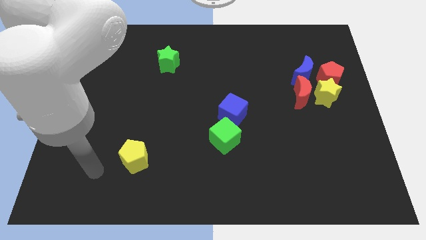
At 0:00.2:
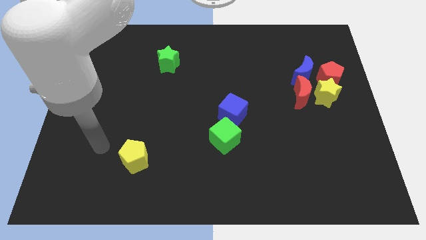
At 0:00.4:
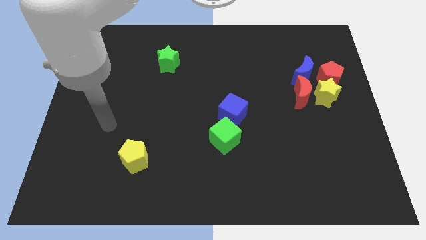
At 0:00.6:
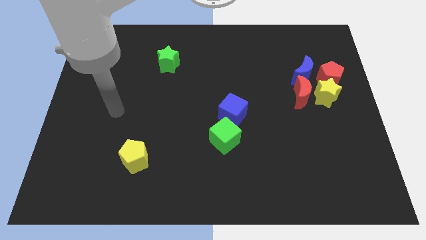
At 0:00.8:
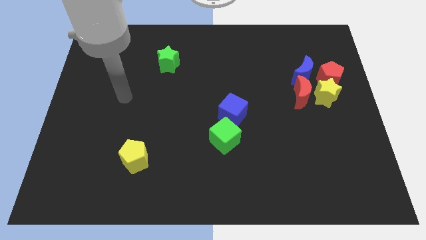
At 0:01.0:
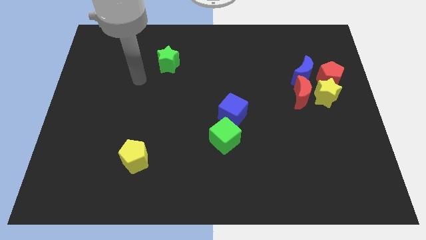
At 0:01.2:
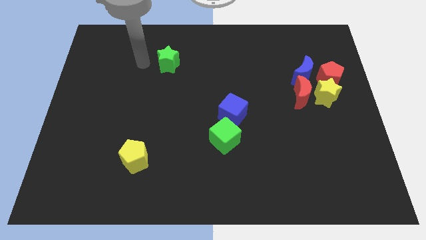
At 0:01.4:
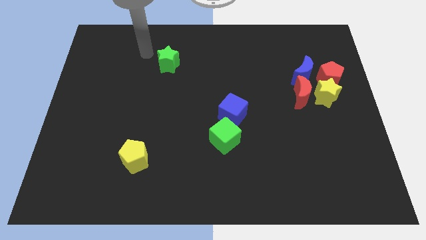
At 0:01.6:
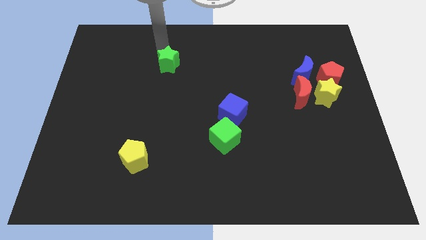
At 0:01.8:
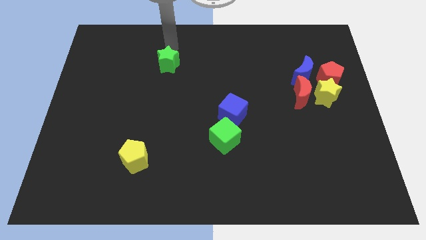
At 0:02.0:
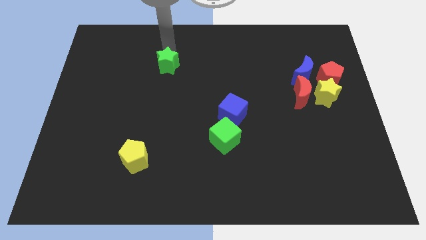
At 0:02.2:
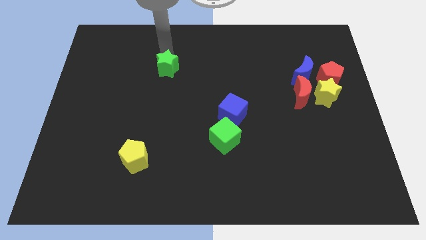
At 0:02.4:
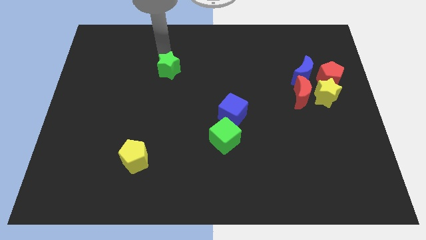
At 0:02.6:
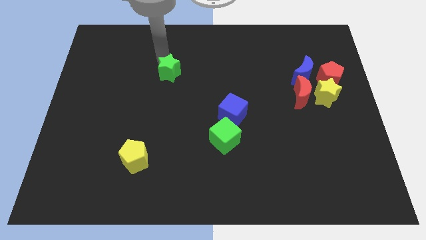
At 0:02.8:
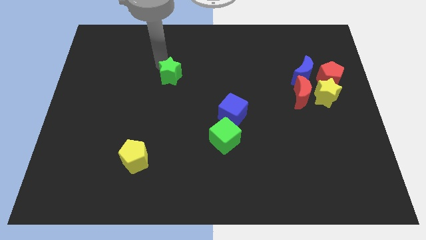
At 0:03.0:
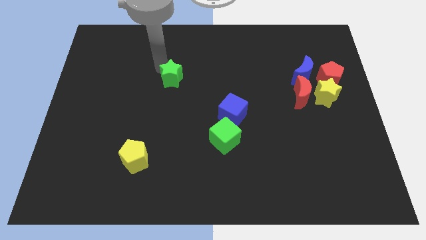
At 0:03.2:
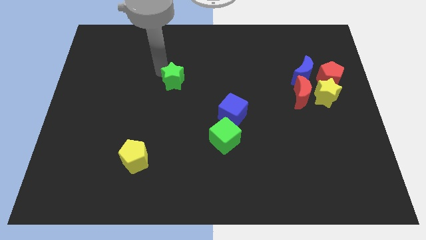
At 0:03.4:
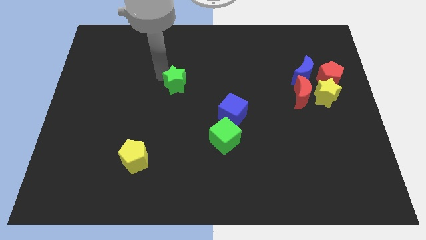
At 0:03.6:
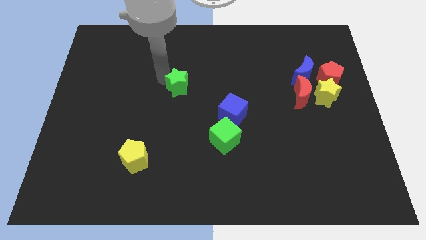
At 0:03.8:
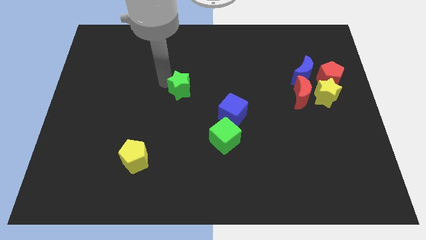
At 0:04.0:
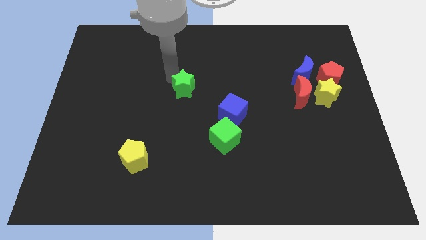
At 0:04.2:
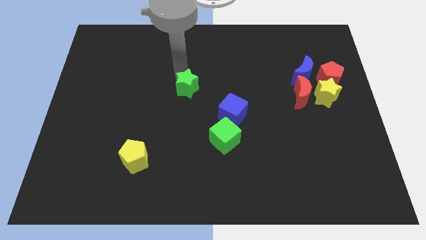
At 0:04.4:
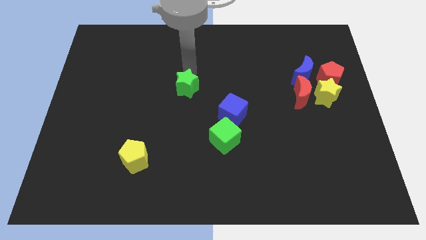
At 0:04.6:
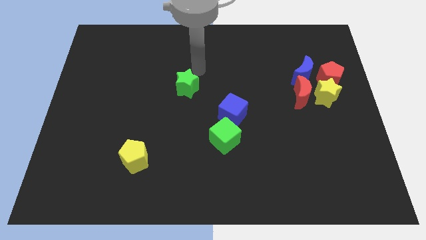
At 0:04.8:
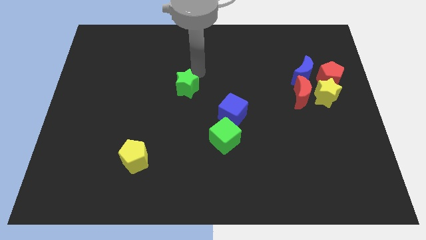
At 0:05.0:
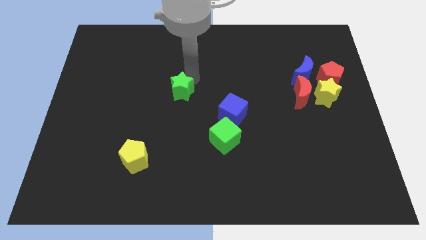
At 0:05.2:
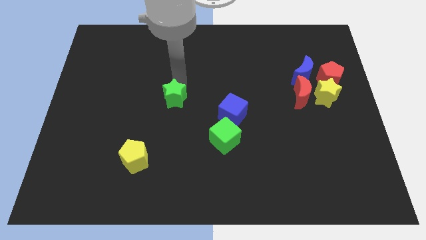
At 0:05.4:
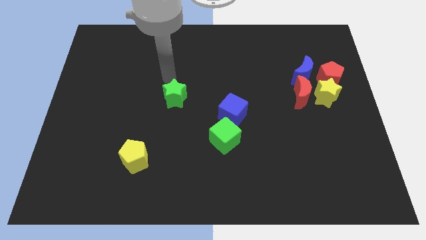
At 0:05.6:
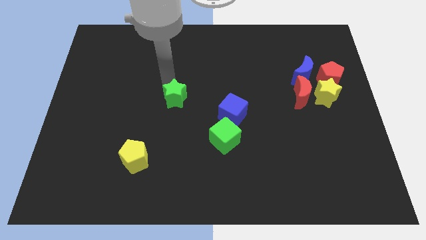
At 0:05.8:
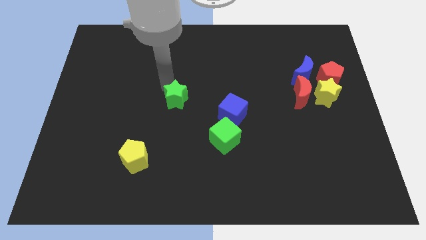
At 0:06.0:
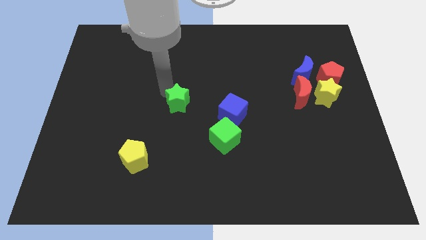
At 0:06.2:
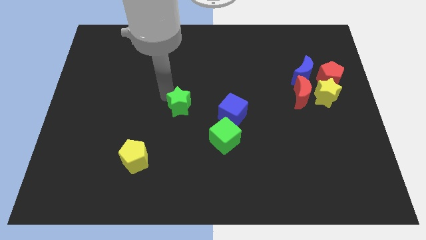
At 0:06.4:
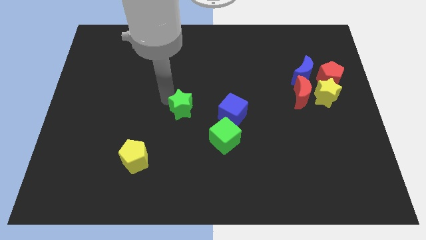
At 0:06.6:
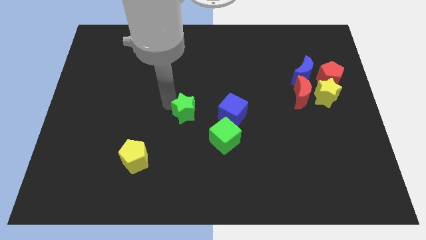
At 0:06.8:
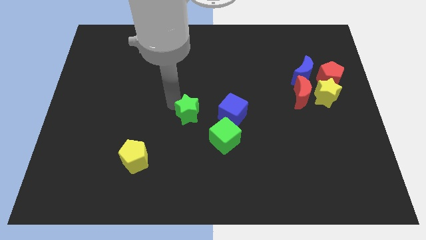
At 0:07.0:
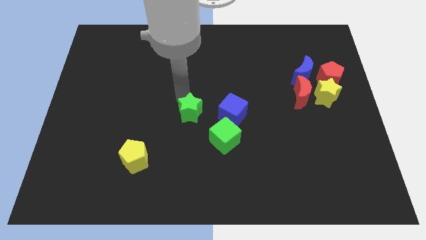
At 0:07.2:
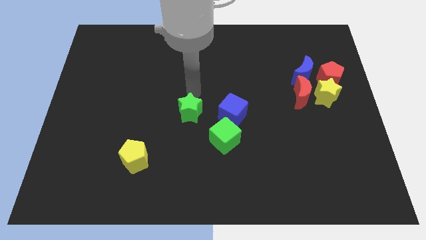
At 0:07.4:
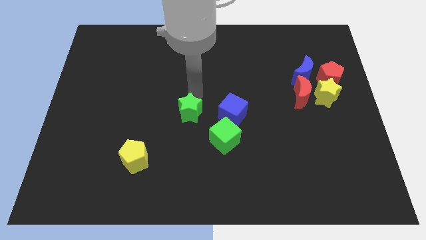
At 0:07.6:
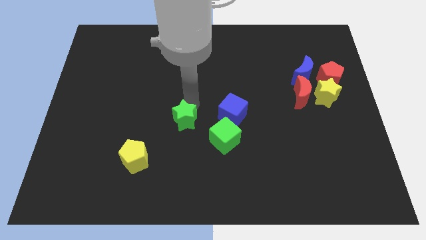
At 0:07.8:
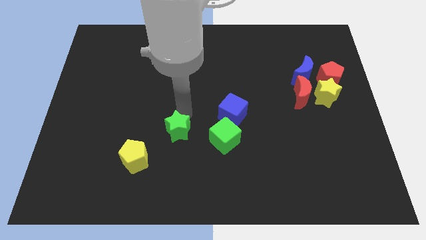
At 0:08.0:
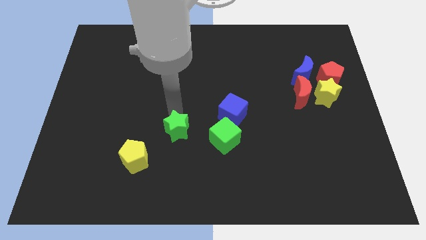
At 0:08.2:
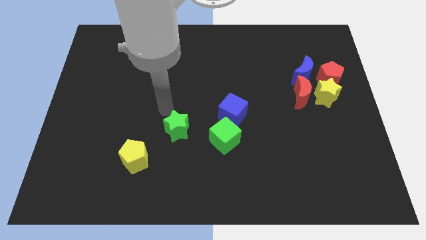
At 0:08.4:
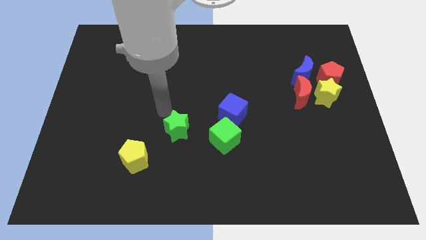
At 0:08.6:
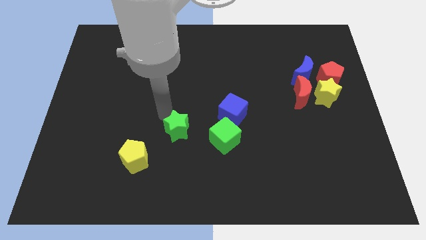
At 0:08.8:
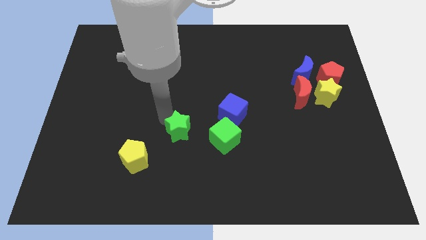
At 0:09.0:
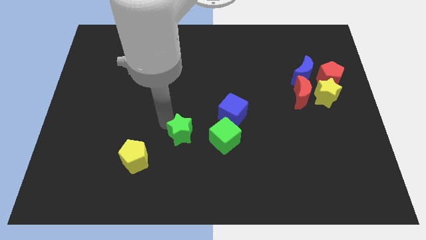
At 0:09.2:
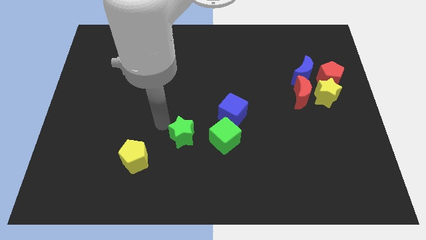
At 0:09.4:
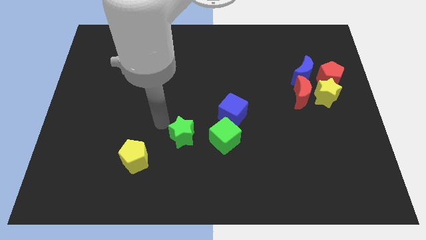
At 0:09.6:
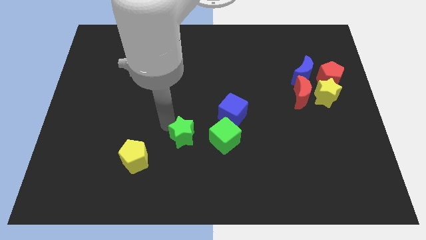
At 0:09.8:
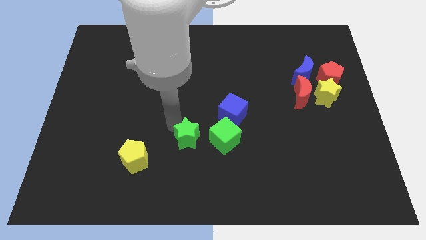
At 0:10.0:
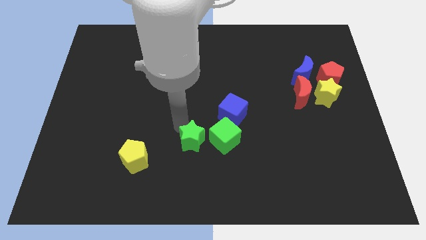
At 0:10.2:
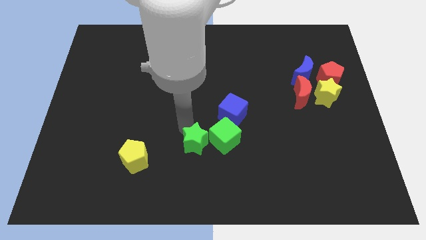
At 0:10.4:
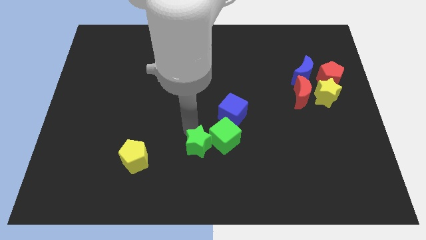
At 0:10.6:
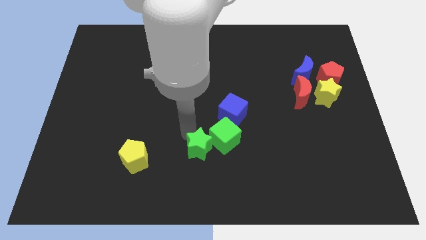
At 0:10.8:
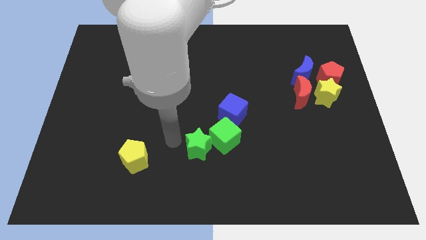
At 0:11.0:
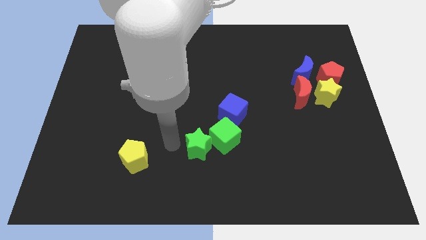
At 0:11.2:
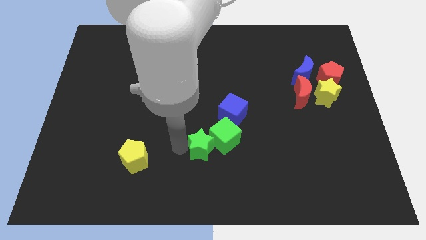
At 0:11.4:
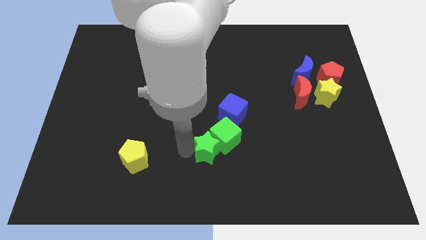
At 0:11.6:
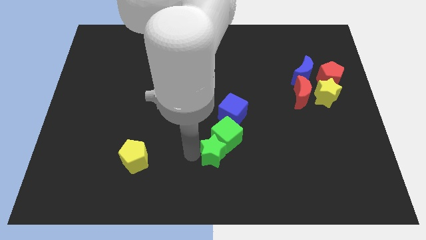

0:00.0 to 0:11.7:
put the green star below the blue cube

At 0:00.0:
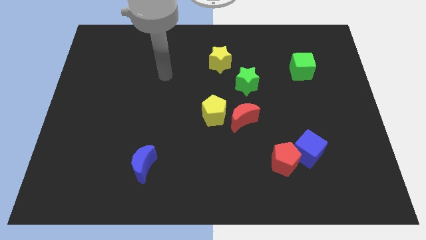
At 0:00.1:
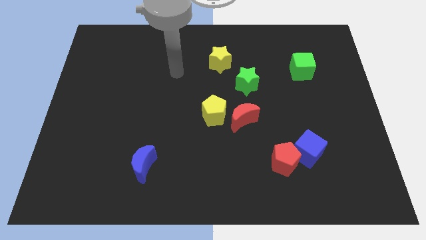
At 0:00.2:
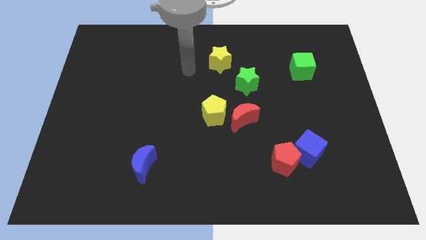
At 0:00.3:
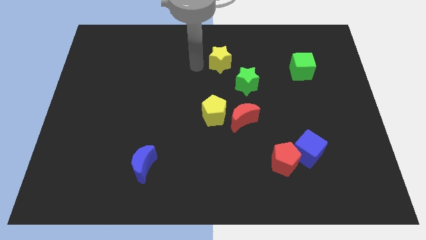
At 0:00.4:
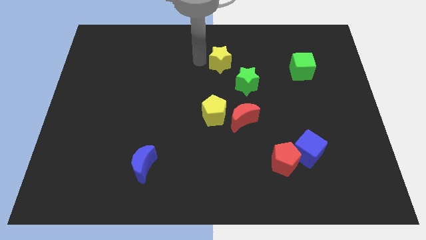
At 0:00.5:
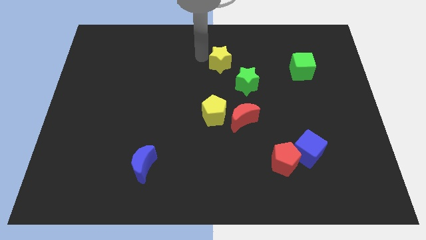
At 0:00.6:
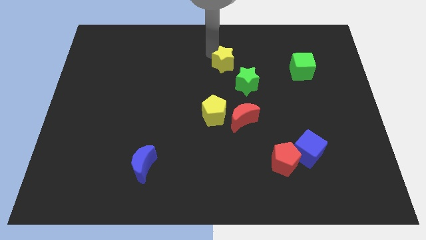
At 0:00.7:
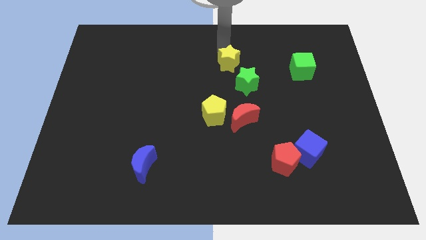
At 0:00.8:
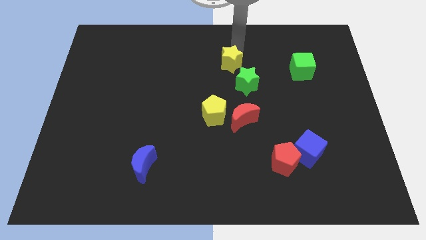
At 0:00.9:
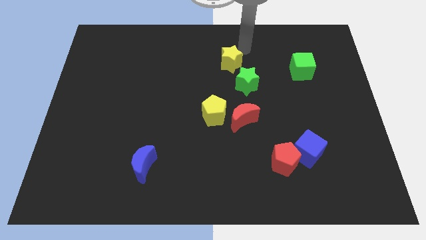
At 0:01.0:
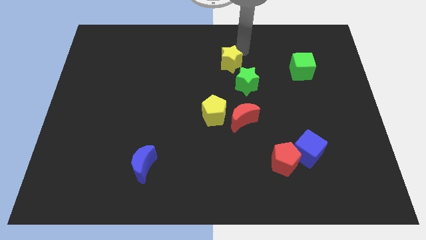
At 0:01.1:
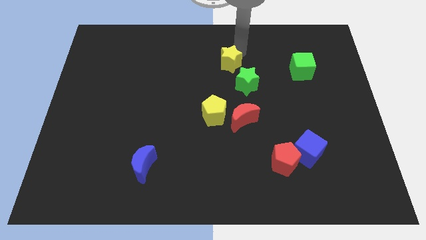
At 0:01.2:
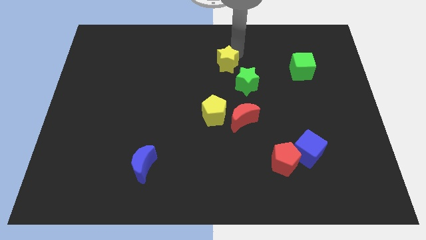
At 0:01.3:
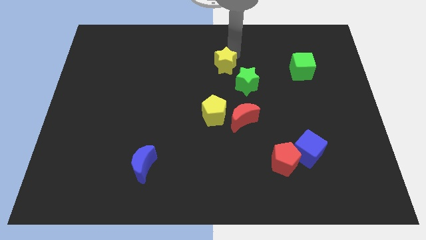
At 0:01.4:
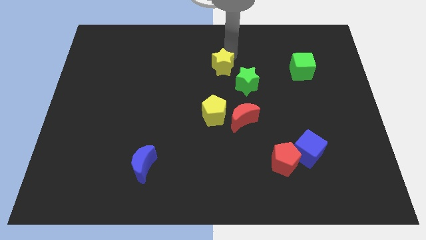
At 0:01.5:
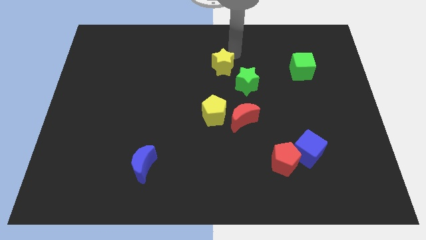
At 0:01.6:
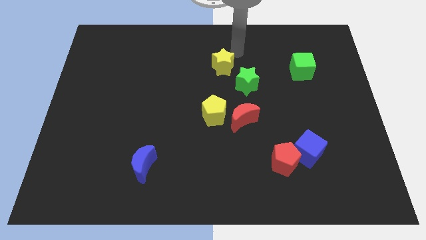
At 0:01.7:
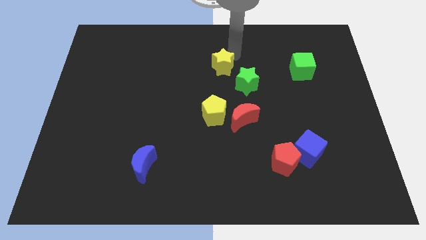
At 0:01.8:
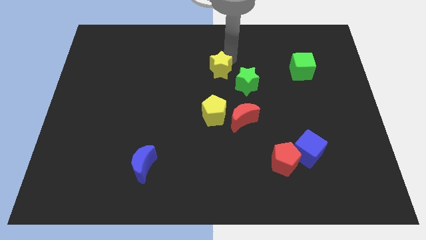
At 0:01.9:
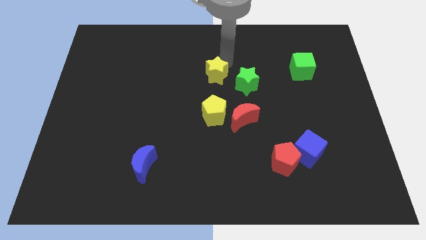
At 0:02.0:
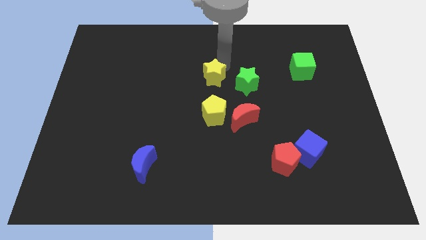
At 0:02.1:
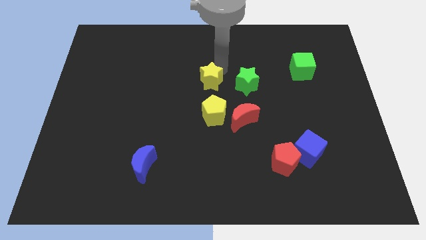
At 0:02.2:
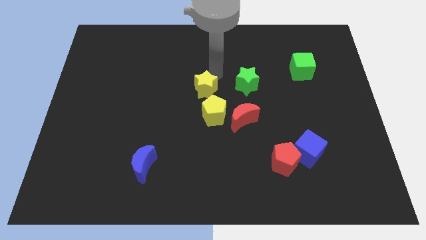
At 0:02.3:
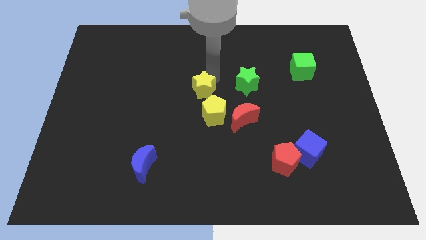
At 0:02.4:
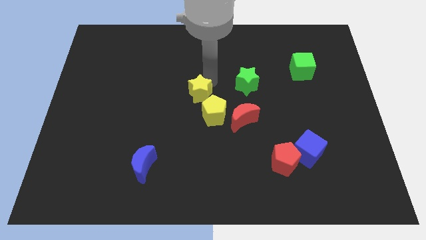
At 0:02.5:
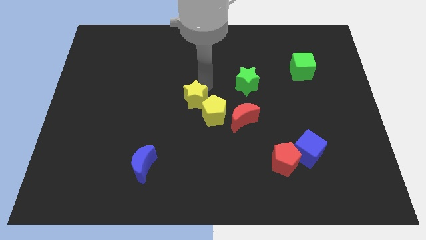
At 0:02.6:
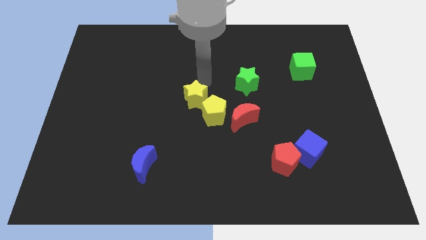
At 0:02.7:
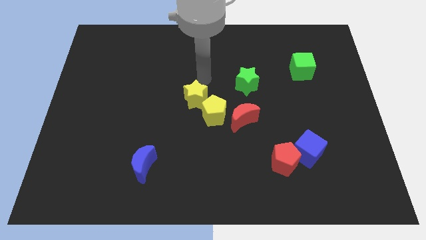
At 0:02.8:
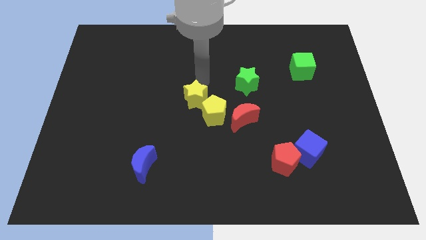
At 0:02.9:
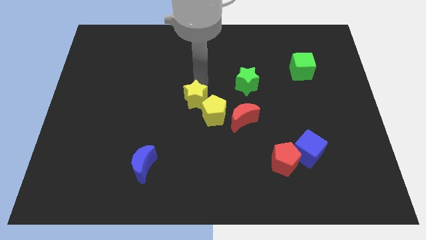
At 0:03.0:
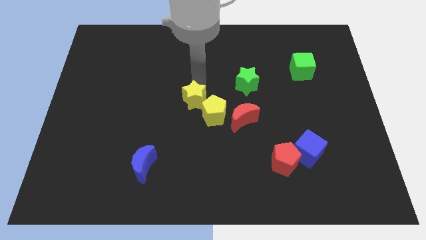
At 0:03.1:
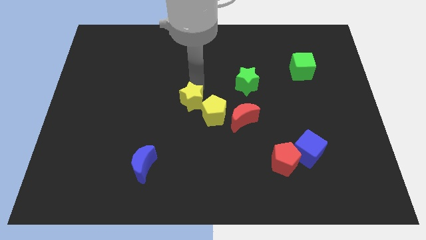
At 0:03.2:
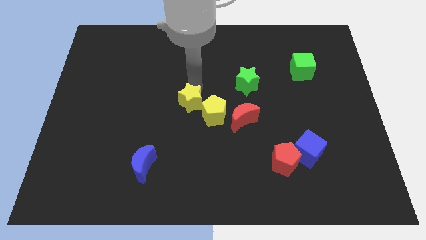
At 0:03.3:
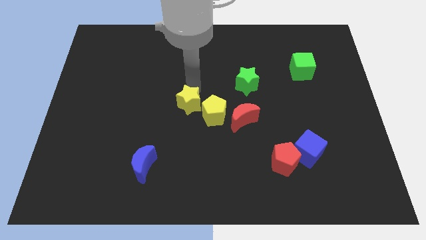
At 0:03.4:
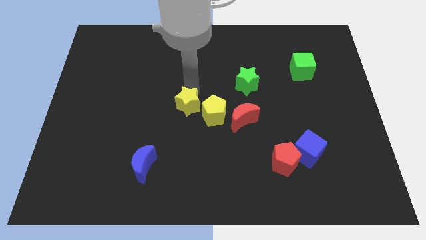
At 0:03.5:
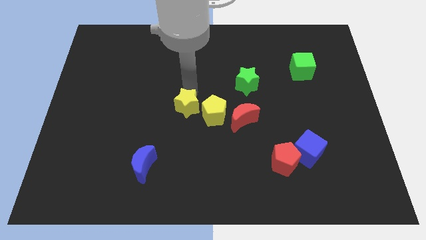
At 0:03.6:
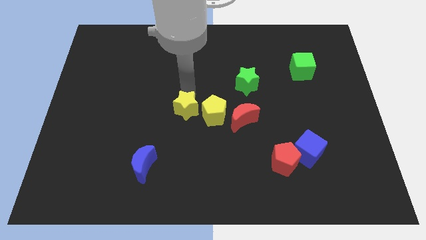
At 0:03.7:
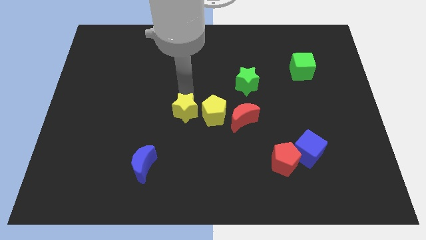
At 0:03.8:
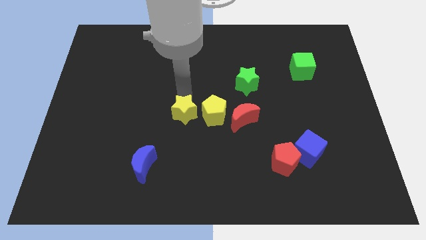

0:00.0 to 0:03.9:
put the yellow star to the bottom left of the yellow pentagon
